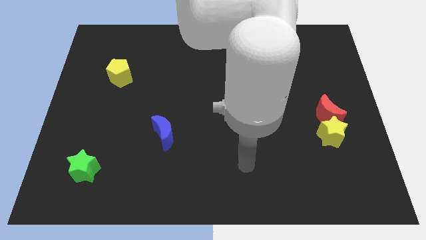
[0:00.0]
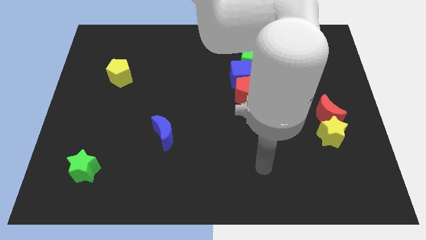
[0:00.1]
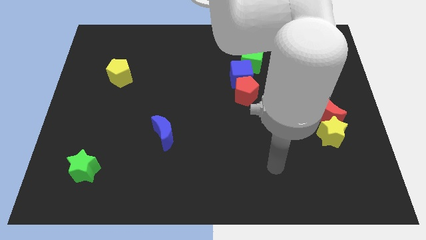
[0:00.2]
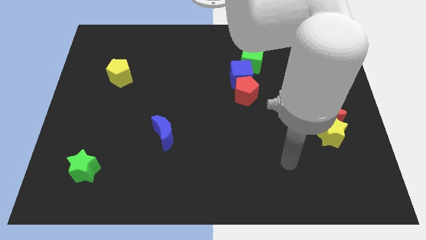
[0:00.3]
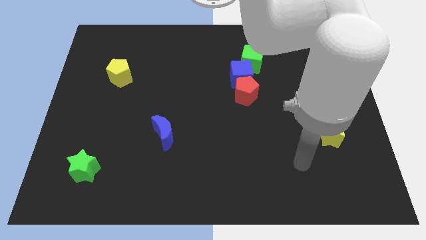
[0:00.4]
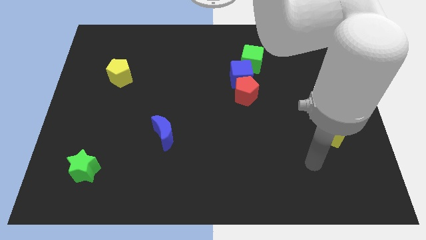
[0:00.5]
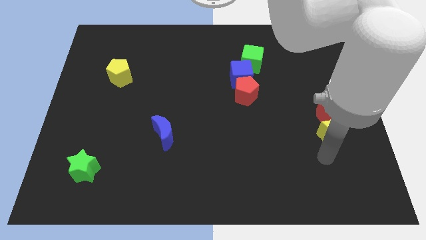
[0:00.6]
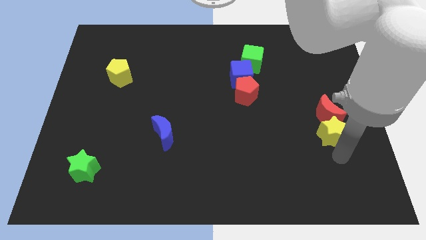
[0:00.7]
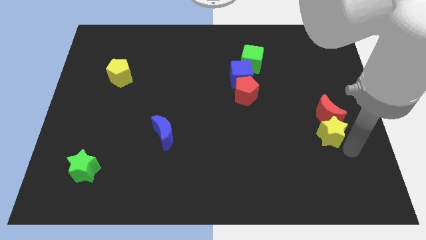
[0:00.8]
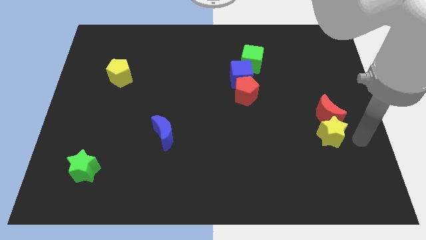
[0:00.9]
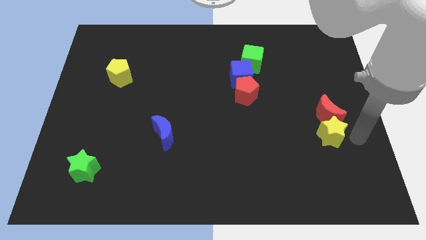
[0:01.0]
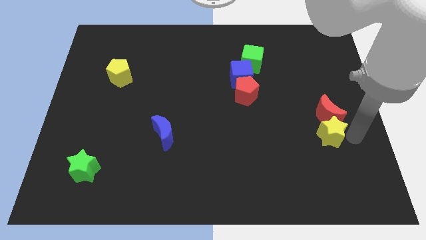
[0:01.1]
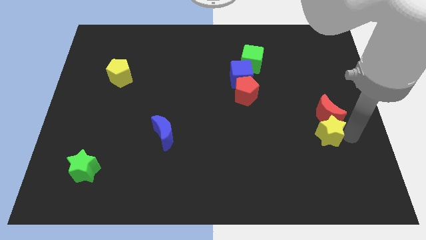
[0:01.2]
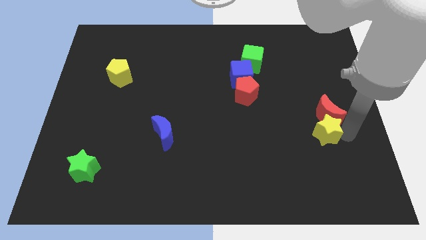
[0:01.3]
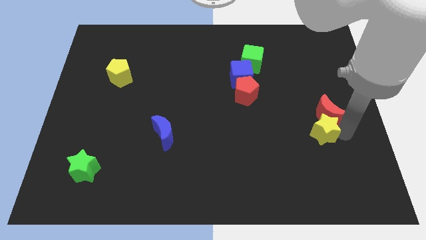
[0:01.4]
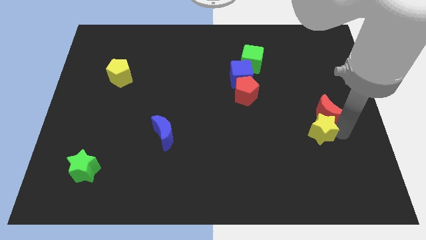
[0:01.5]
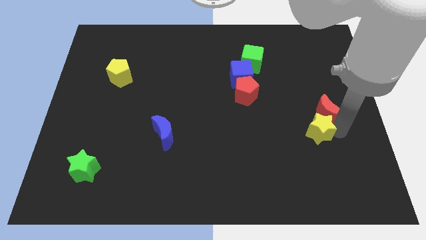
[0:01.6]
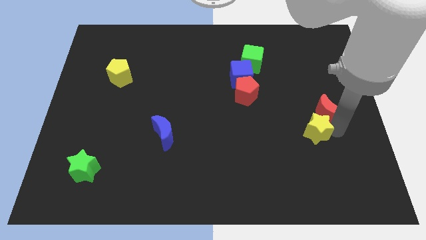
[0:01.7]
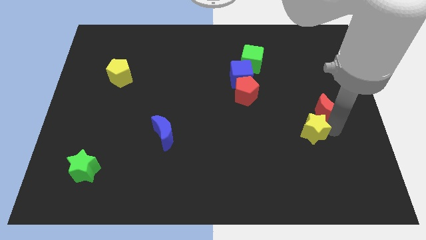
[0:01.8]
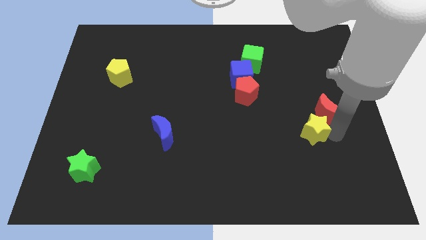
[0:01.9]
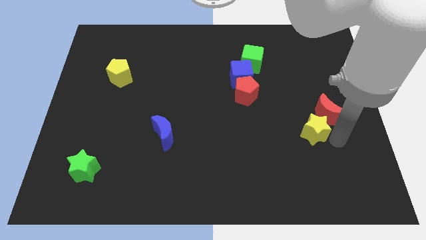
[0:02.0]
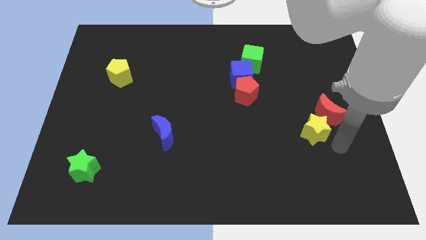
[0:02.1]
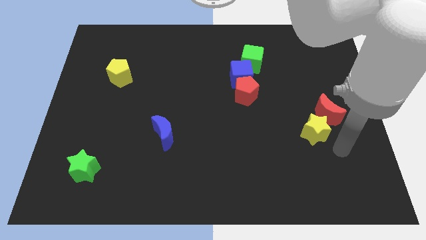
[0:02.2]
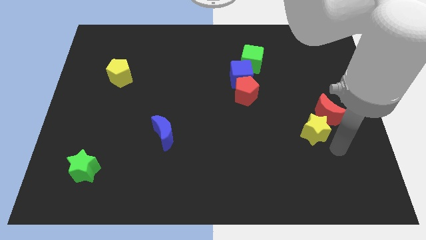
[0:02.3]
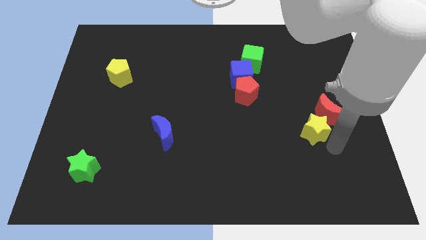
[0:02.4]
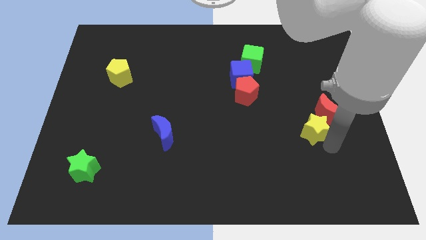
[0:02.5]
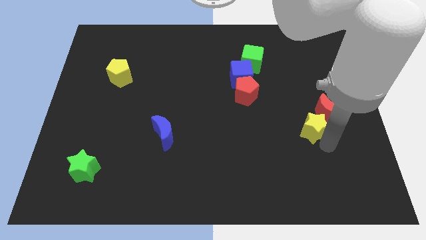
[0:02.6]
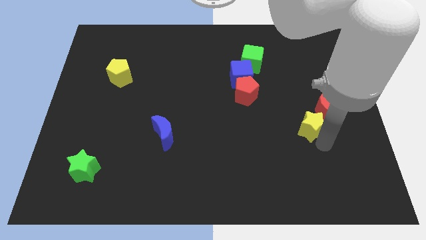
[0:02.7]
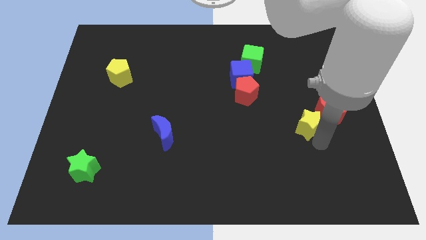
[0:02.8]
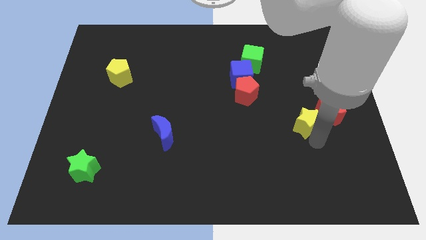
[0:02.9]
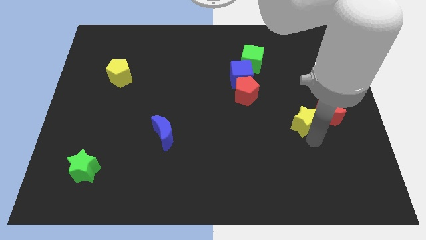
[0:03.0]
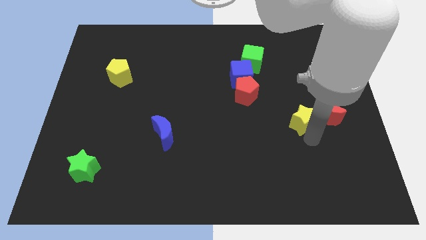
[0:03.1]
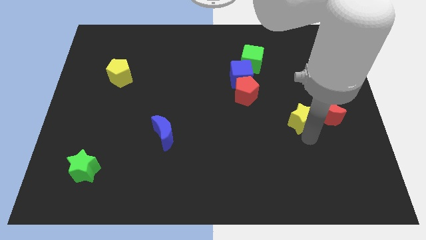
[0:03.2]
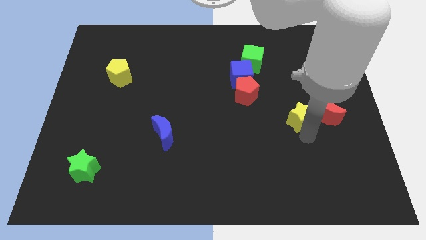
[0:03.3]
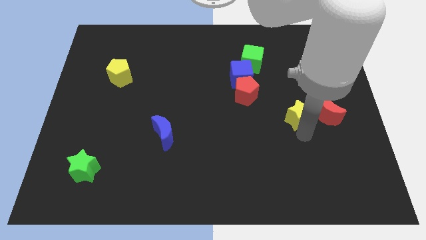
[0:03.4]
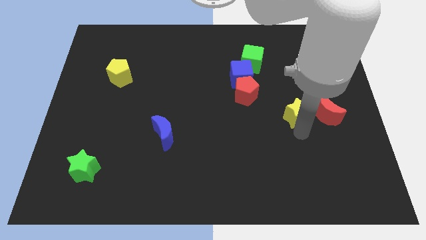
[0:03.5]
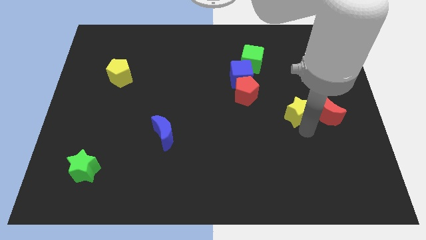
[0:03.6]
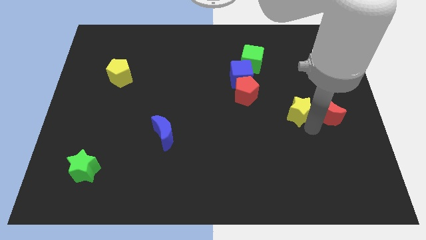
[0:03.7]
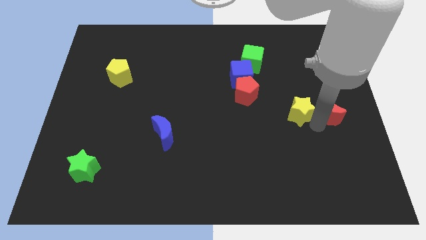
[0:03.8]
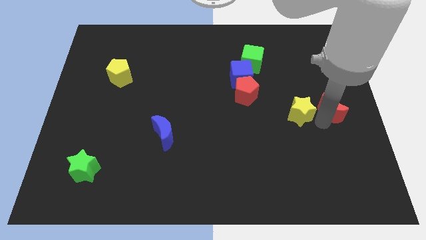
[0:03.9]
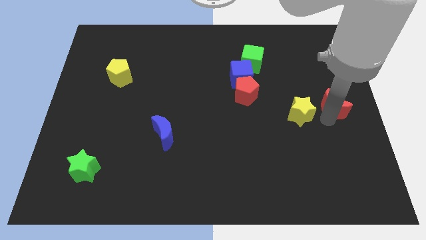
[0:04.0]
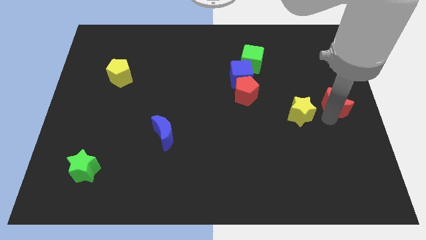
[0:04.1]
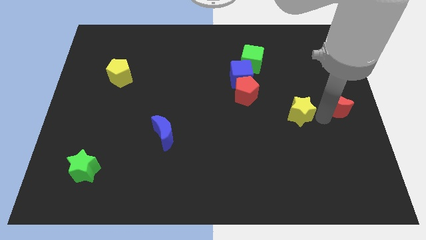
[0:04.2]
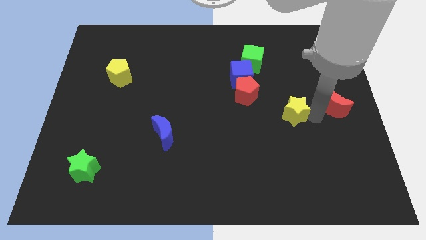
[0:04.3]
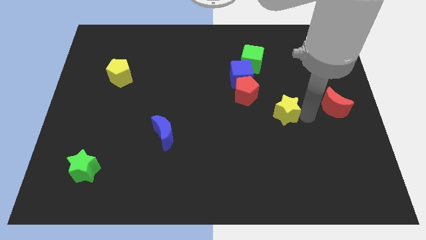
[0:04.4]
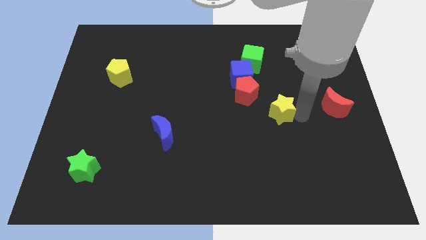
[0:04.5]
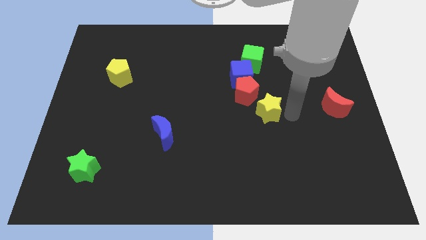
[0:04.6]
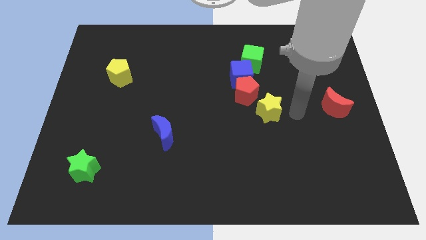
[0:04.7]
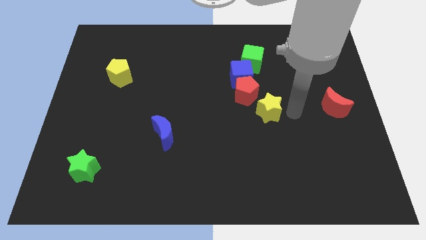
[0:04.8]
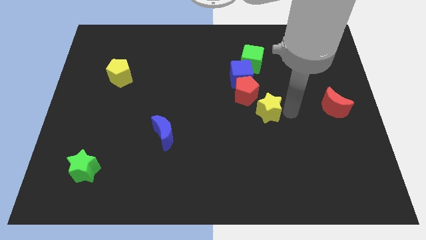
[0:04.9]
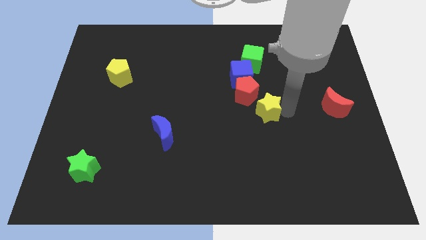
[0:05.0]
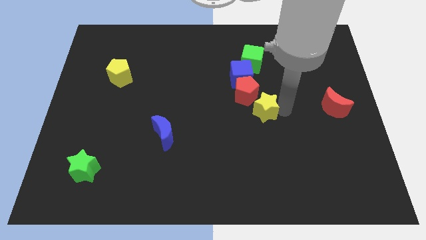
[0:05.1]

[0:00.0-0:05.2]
move the yellow star to the center

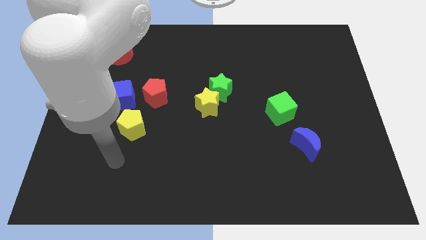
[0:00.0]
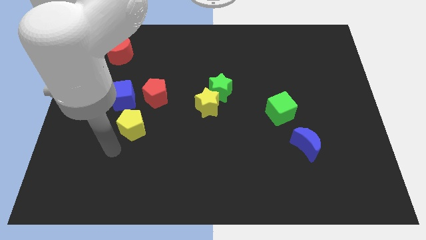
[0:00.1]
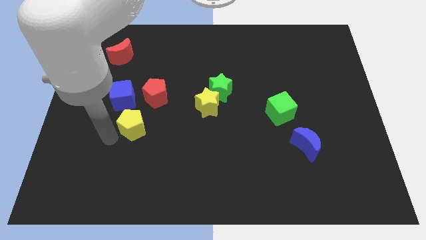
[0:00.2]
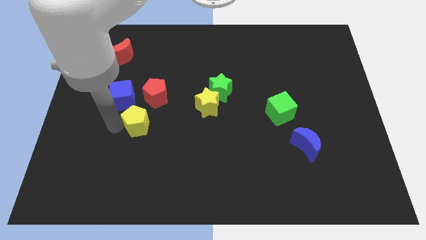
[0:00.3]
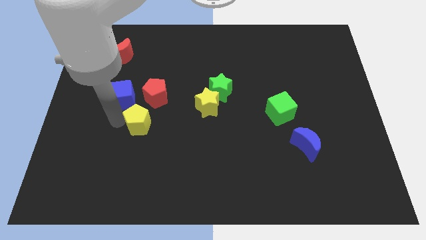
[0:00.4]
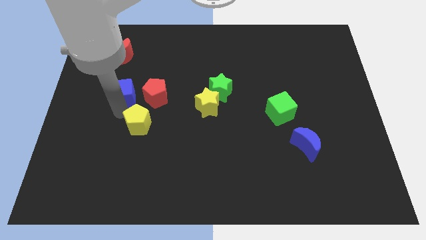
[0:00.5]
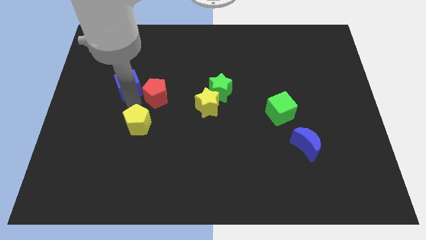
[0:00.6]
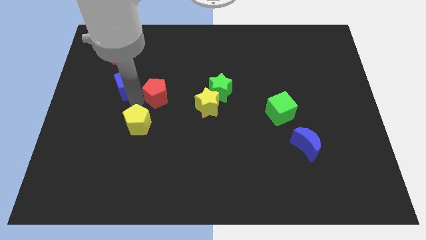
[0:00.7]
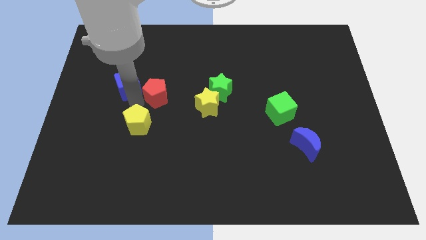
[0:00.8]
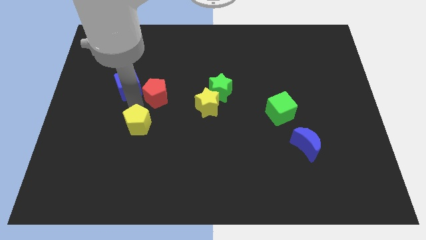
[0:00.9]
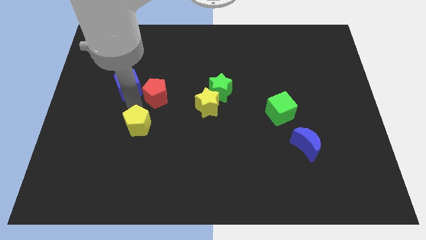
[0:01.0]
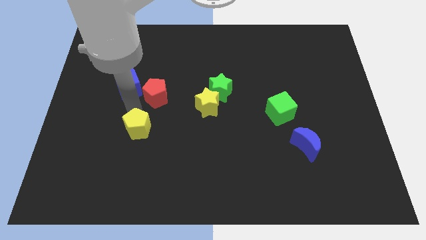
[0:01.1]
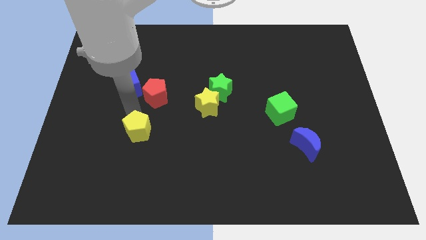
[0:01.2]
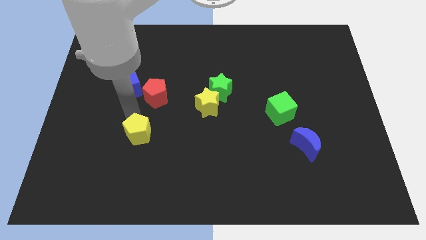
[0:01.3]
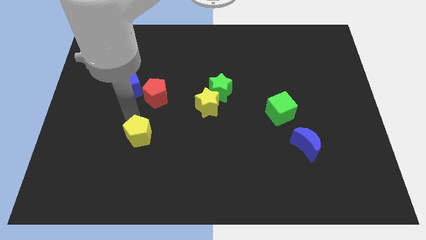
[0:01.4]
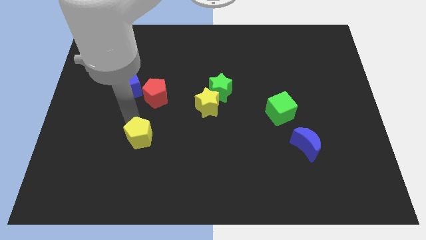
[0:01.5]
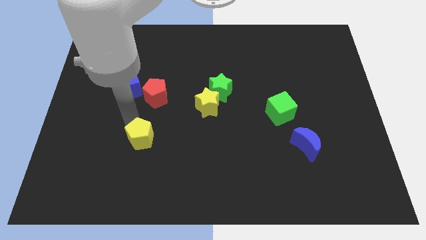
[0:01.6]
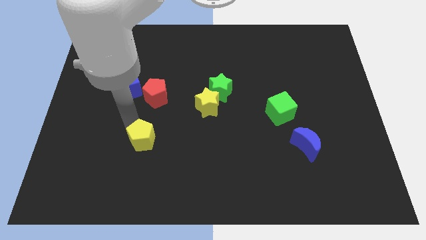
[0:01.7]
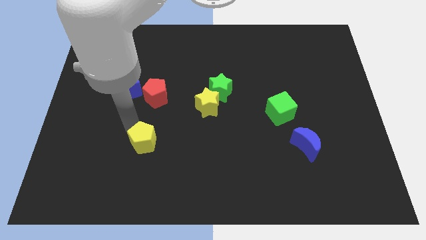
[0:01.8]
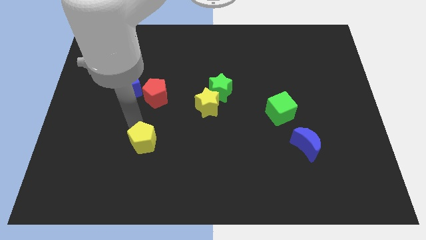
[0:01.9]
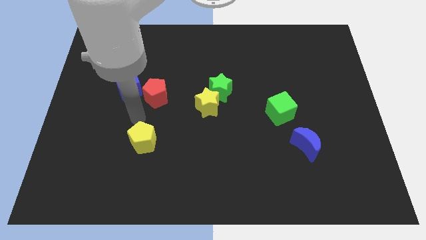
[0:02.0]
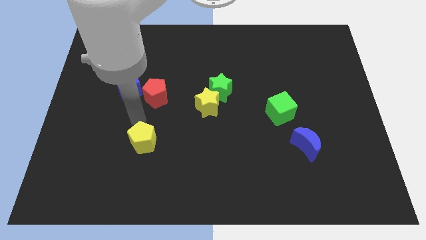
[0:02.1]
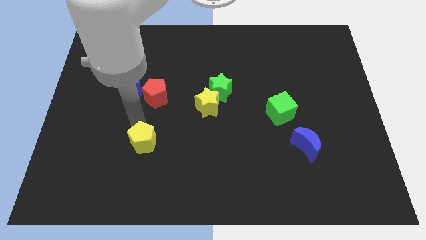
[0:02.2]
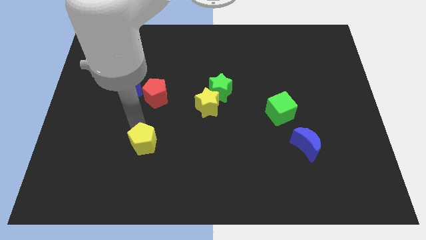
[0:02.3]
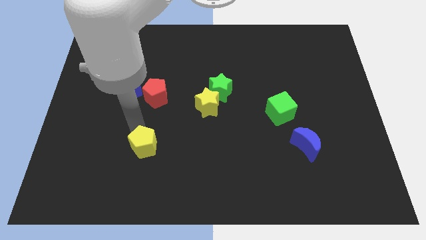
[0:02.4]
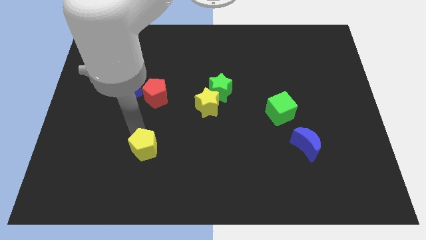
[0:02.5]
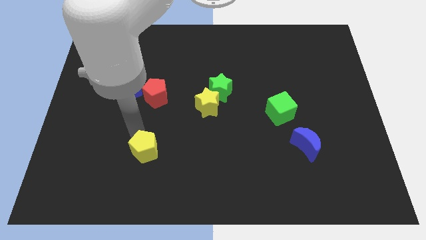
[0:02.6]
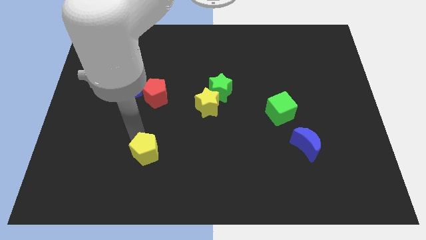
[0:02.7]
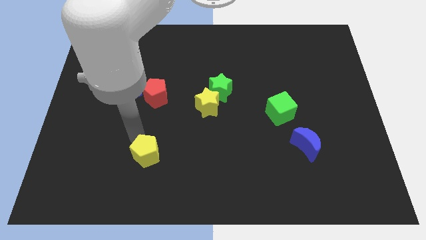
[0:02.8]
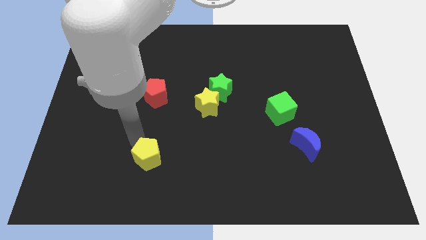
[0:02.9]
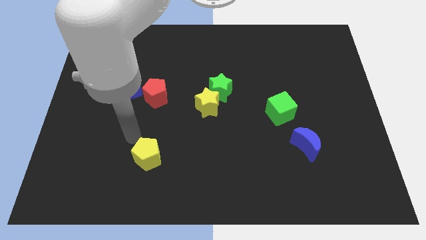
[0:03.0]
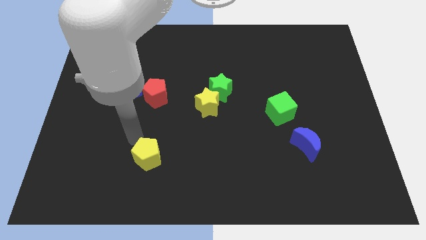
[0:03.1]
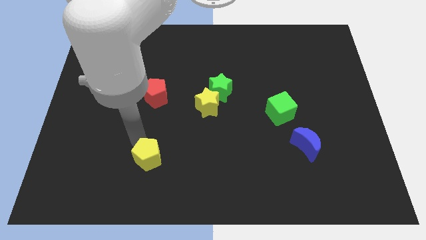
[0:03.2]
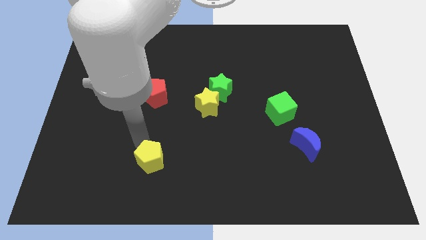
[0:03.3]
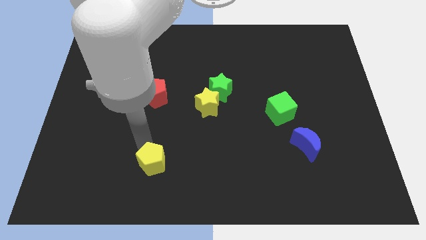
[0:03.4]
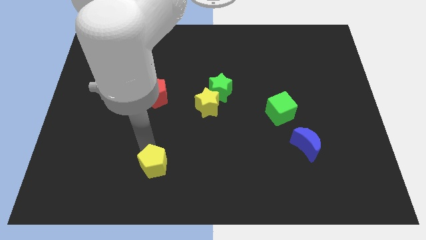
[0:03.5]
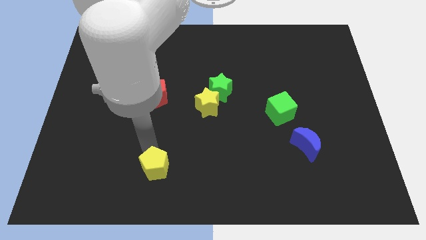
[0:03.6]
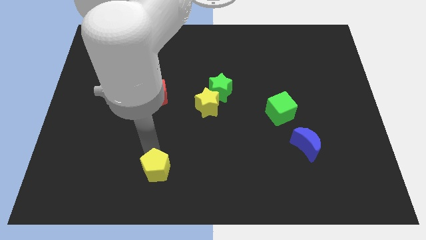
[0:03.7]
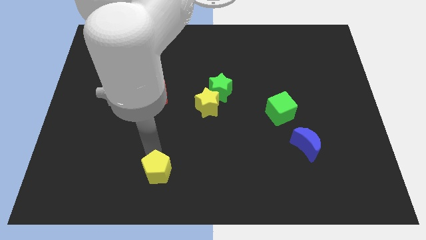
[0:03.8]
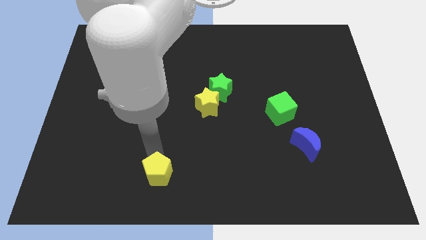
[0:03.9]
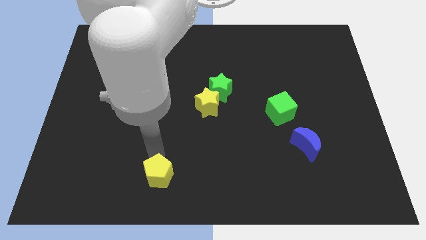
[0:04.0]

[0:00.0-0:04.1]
put the yellow pentagon to the bottom
